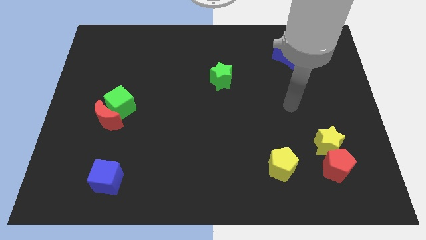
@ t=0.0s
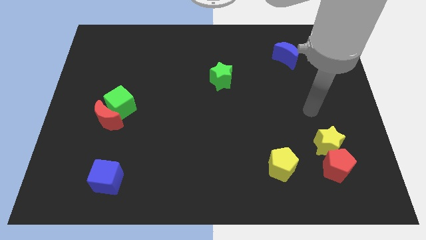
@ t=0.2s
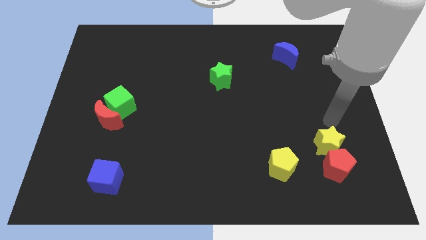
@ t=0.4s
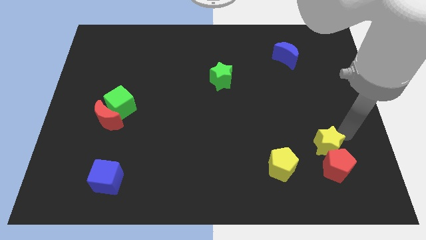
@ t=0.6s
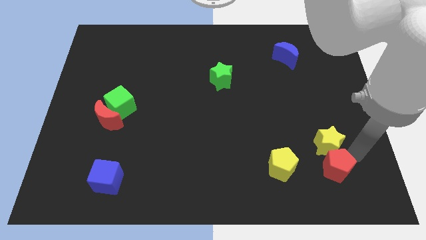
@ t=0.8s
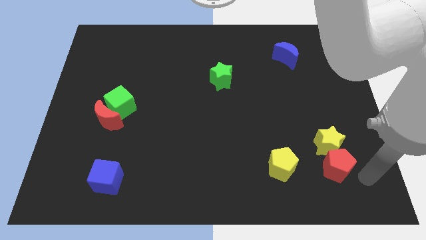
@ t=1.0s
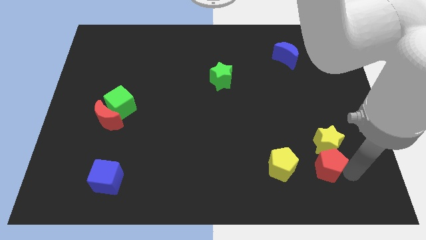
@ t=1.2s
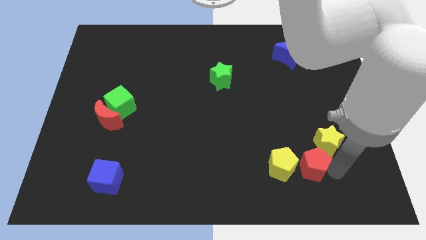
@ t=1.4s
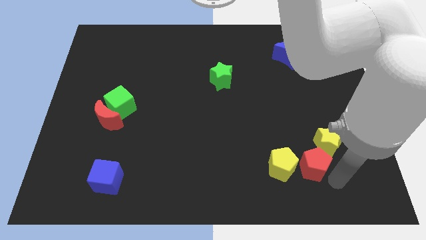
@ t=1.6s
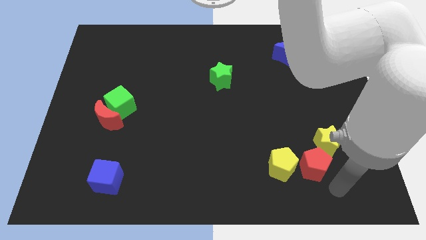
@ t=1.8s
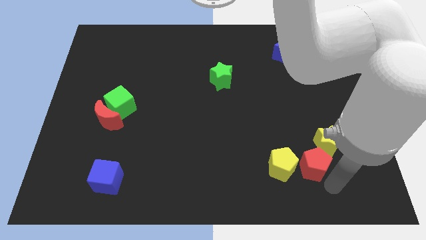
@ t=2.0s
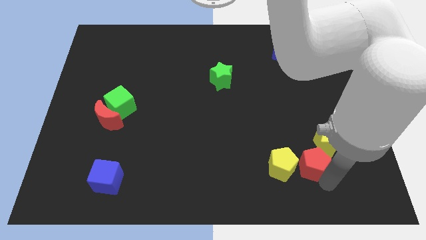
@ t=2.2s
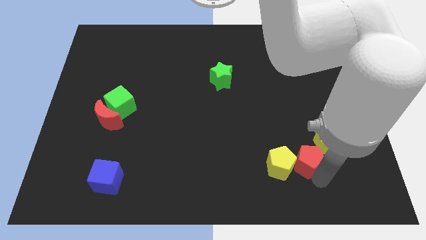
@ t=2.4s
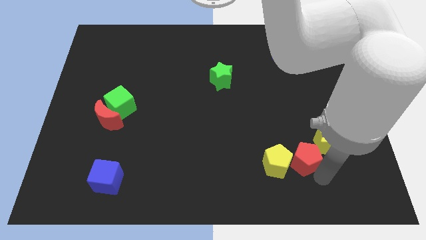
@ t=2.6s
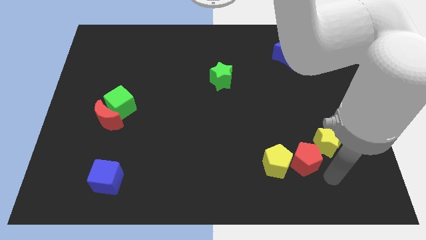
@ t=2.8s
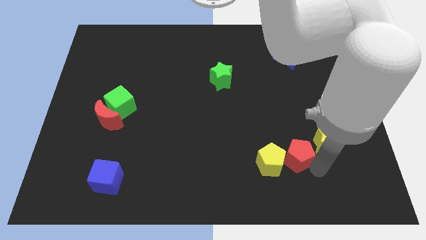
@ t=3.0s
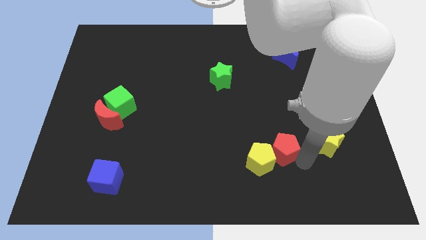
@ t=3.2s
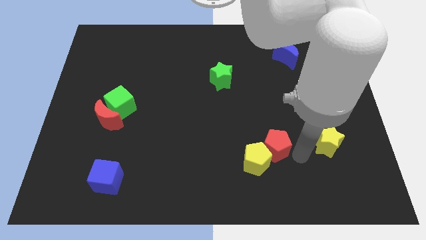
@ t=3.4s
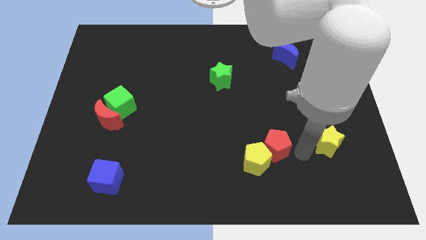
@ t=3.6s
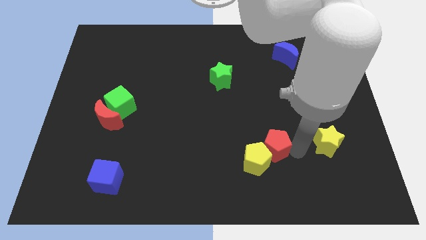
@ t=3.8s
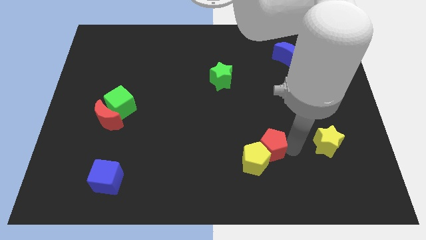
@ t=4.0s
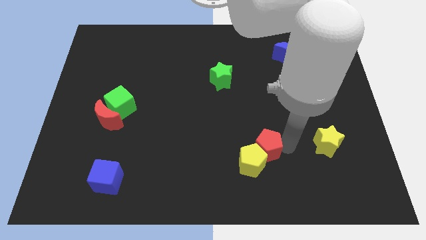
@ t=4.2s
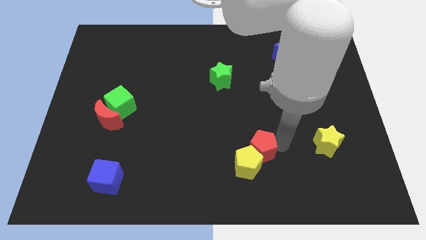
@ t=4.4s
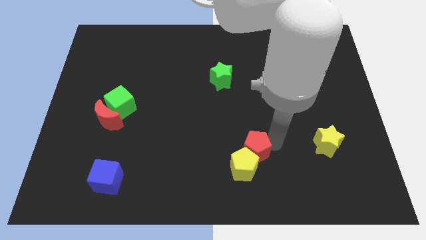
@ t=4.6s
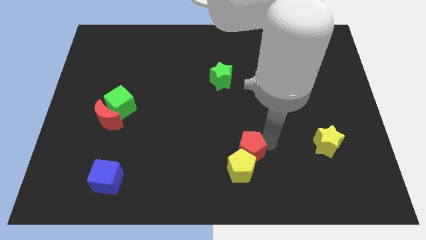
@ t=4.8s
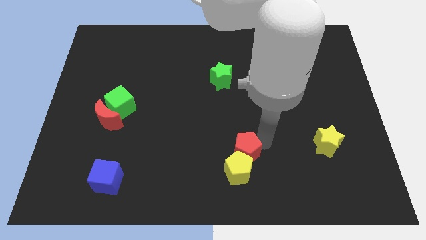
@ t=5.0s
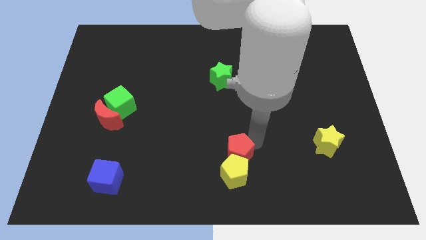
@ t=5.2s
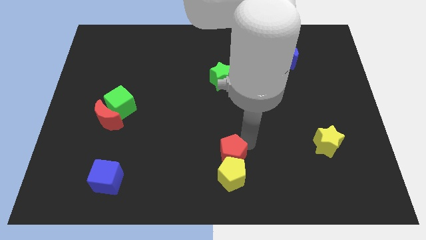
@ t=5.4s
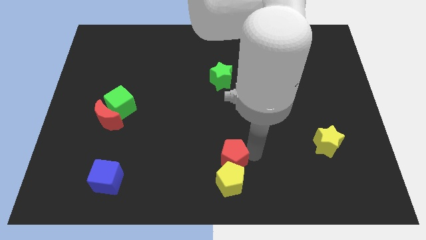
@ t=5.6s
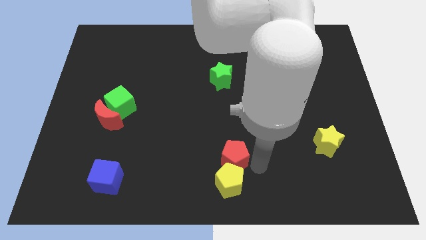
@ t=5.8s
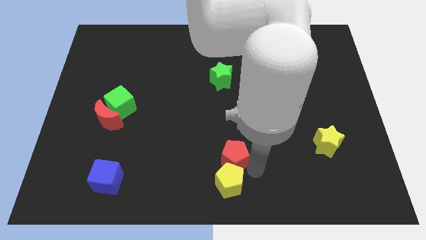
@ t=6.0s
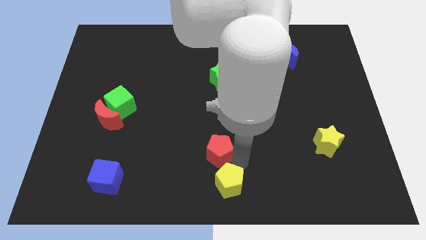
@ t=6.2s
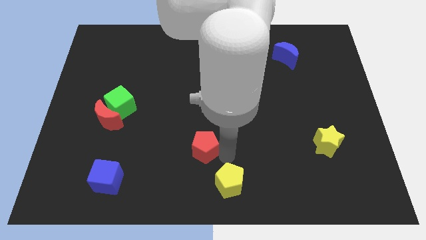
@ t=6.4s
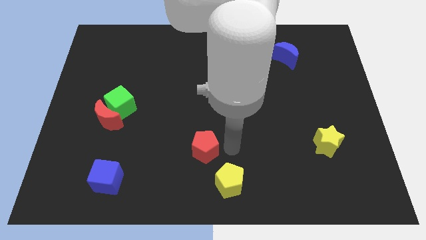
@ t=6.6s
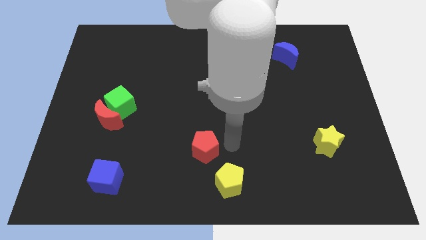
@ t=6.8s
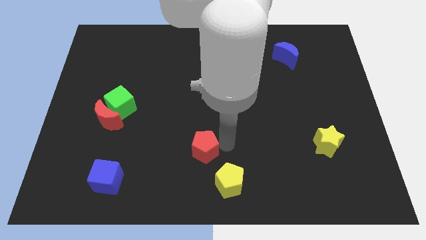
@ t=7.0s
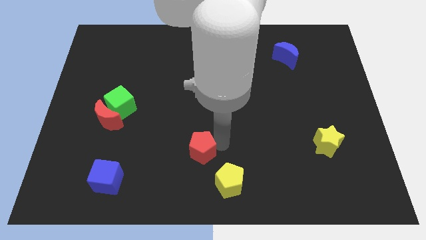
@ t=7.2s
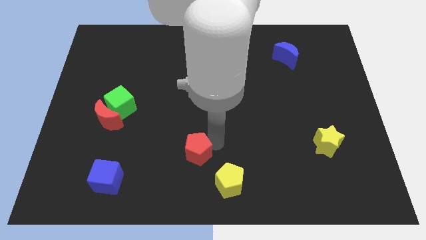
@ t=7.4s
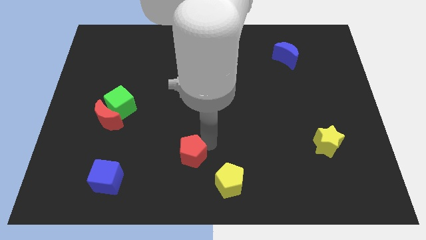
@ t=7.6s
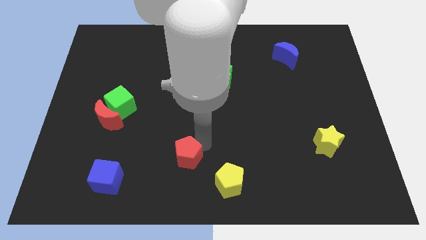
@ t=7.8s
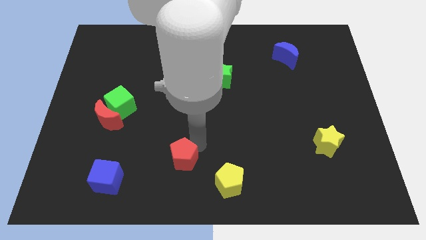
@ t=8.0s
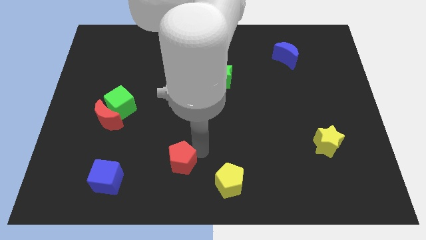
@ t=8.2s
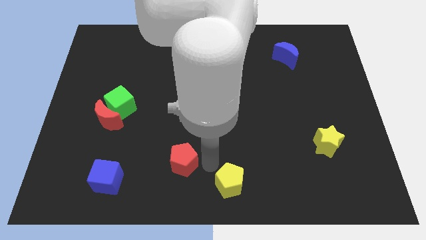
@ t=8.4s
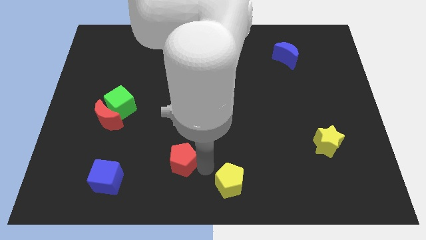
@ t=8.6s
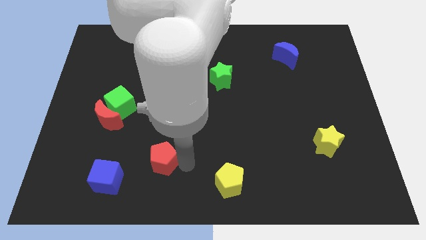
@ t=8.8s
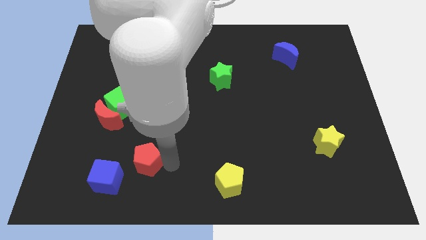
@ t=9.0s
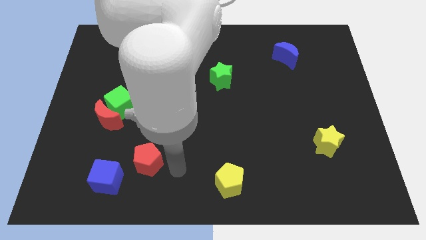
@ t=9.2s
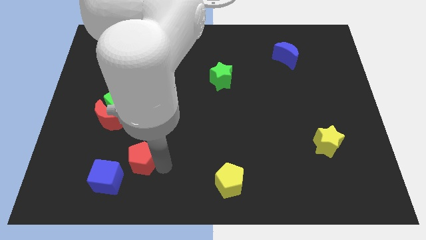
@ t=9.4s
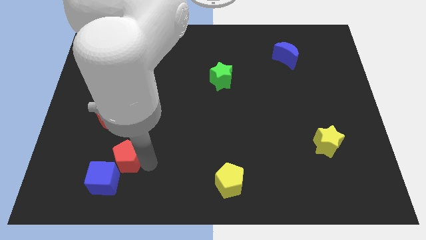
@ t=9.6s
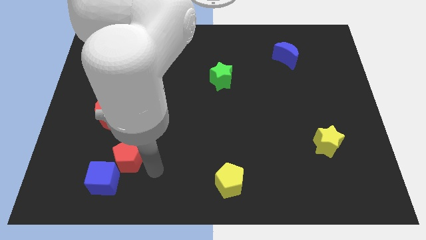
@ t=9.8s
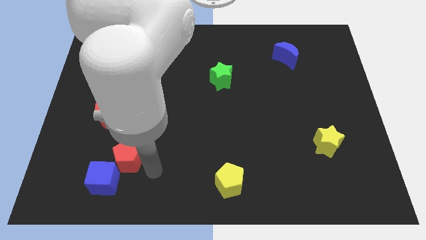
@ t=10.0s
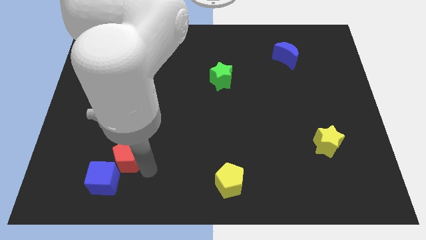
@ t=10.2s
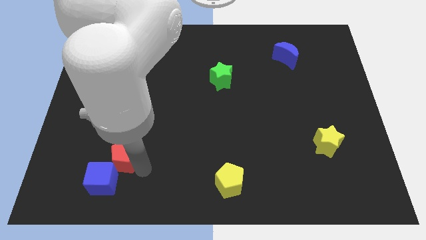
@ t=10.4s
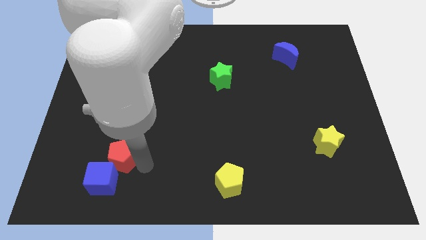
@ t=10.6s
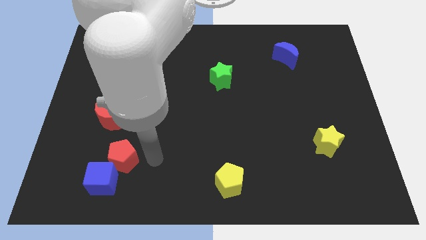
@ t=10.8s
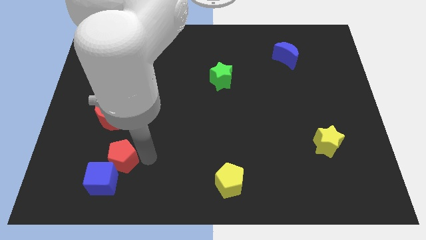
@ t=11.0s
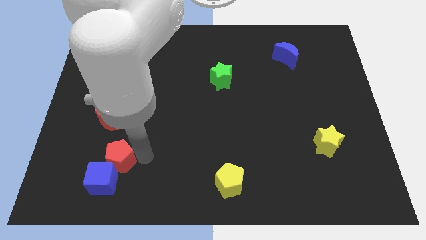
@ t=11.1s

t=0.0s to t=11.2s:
move the red pentagon below the red moon

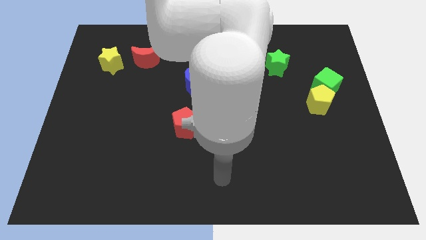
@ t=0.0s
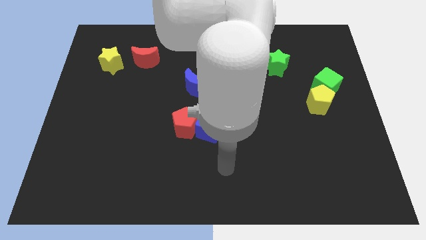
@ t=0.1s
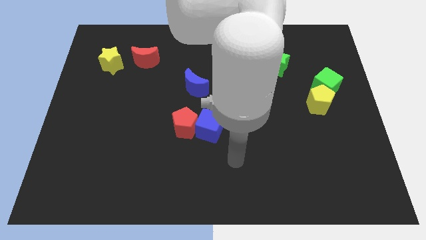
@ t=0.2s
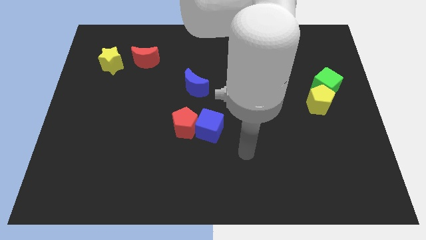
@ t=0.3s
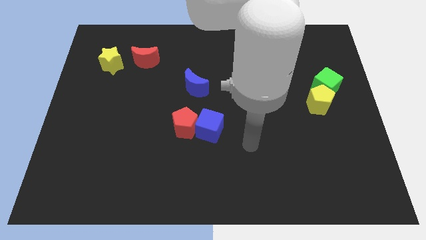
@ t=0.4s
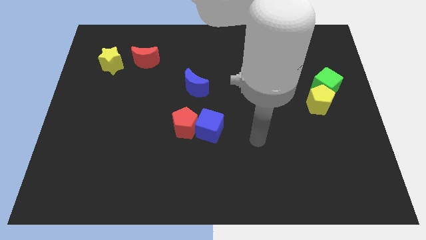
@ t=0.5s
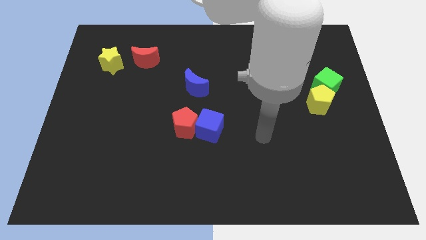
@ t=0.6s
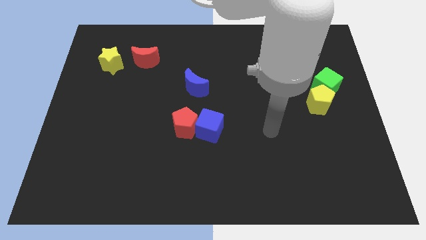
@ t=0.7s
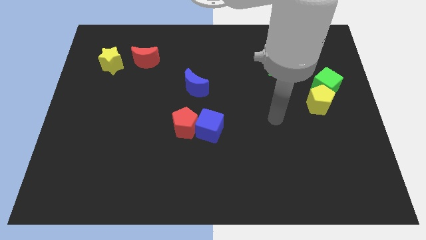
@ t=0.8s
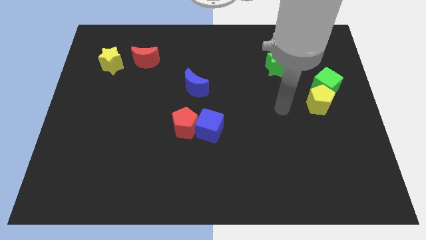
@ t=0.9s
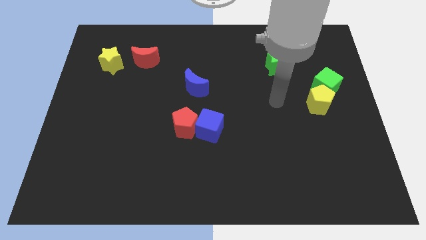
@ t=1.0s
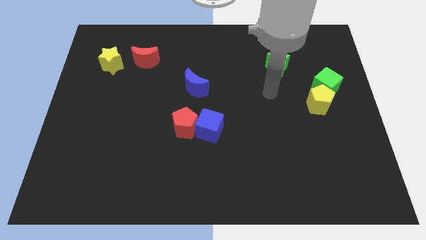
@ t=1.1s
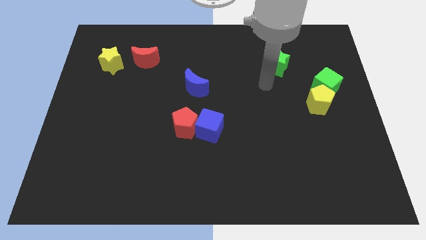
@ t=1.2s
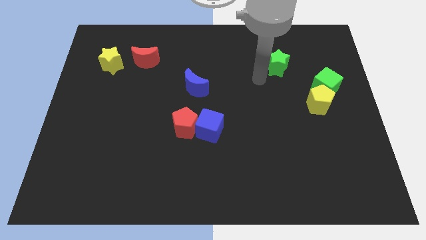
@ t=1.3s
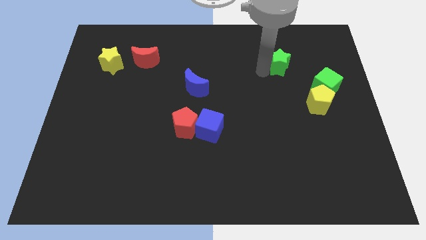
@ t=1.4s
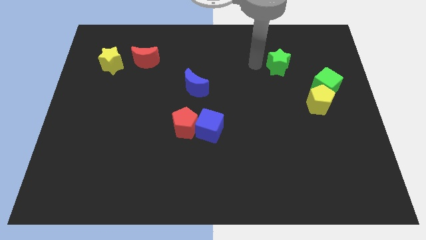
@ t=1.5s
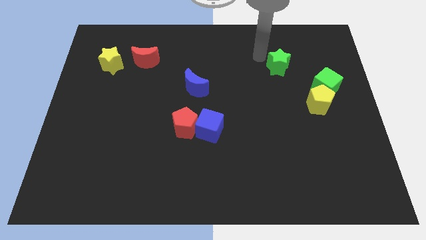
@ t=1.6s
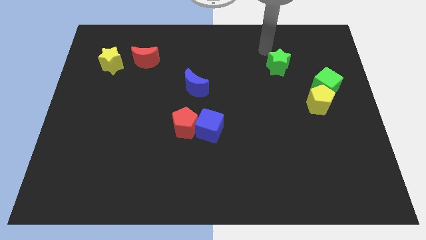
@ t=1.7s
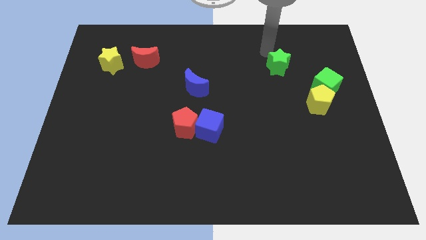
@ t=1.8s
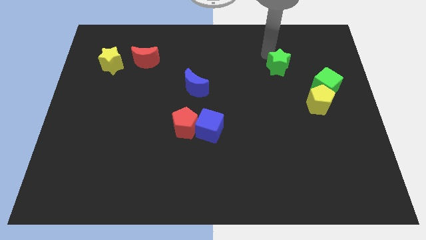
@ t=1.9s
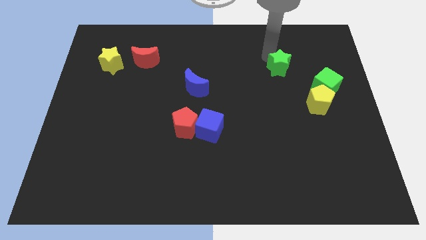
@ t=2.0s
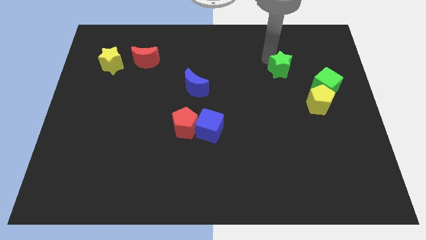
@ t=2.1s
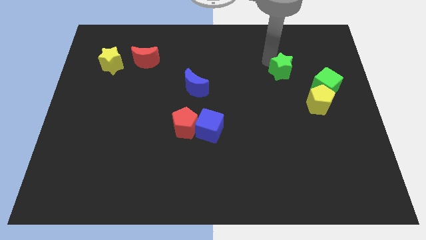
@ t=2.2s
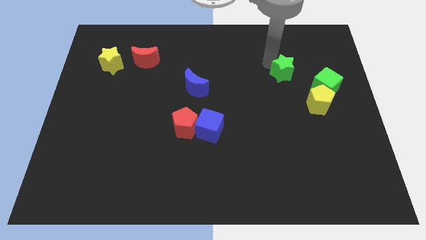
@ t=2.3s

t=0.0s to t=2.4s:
move the green star to the top left of the yellow pentagon
